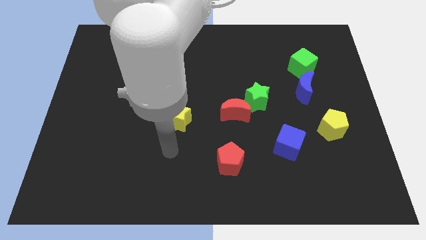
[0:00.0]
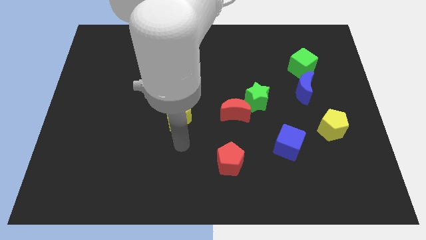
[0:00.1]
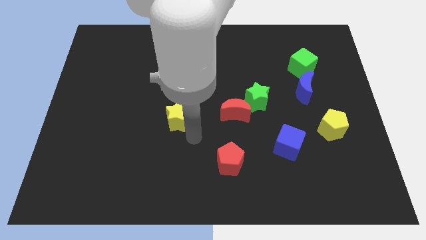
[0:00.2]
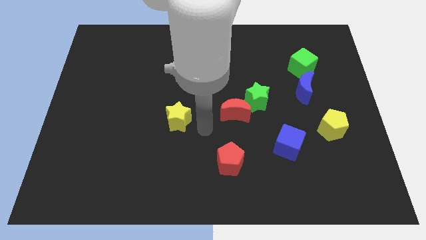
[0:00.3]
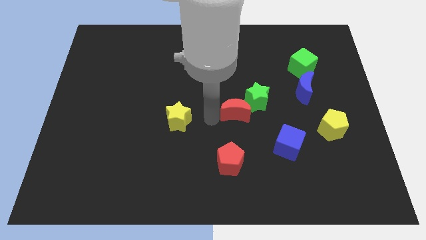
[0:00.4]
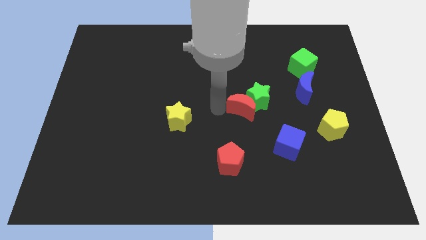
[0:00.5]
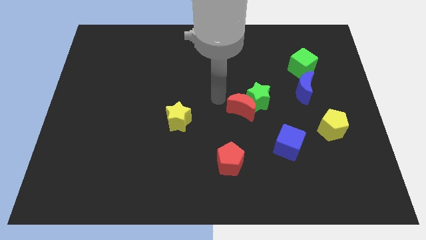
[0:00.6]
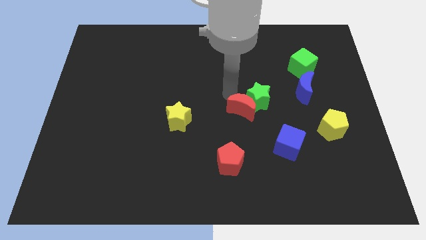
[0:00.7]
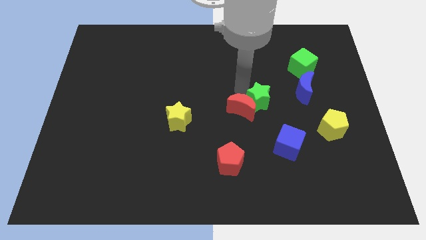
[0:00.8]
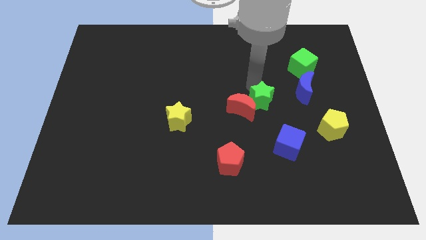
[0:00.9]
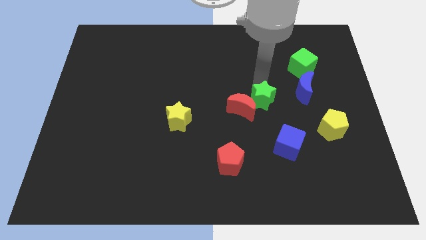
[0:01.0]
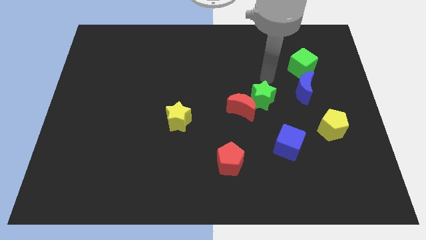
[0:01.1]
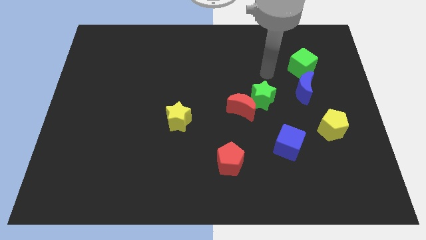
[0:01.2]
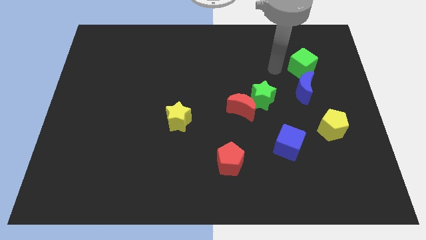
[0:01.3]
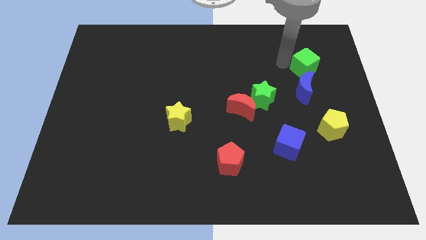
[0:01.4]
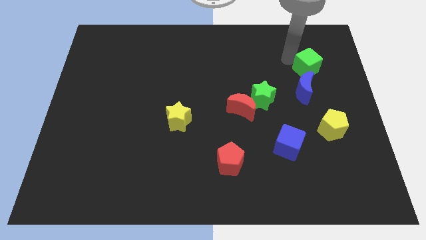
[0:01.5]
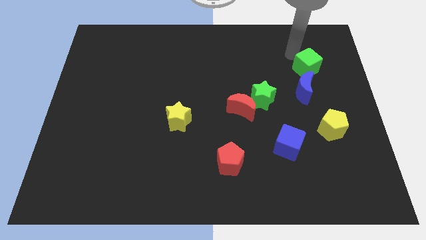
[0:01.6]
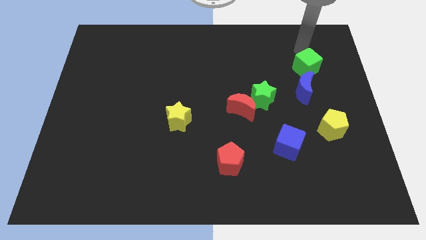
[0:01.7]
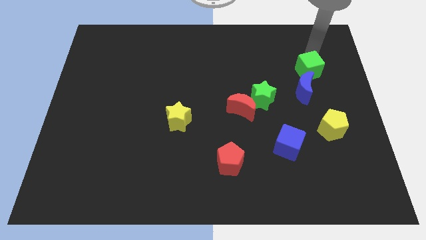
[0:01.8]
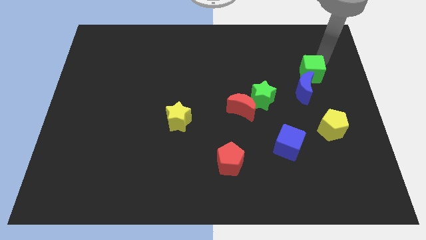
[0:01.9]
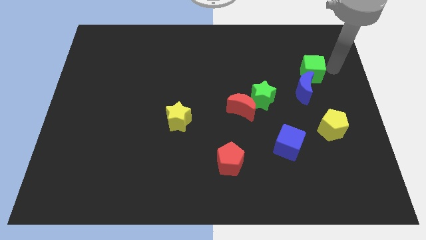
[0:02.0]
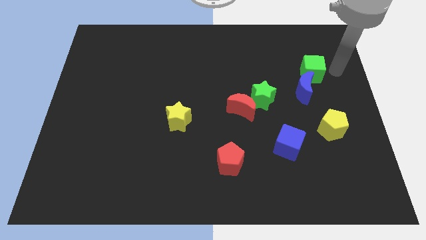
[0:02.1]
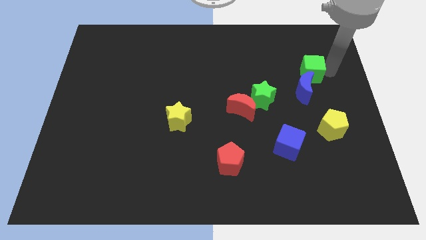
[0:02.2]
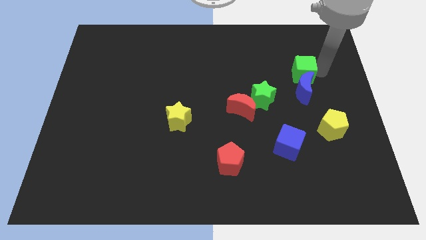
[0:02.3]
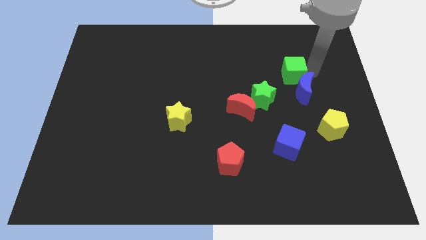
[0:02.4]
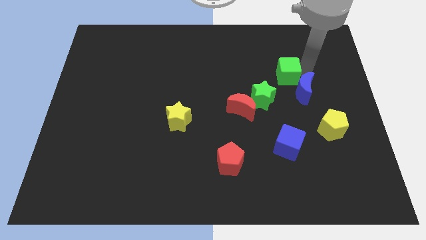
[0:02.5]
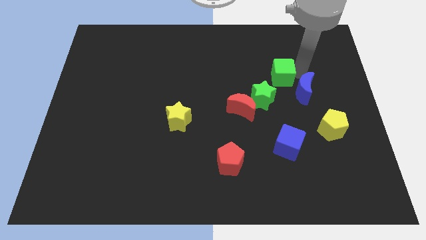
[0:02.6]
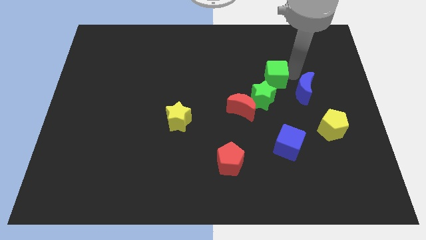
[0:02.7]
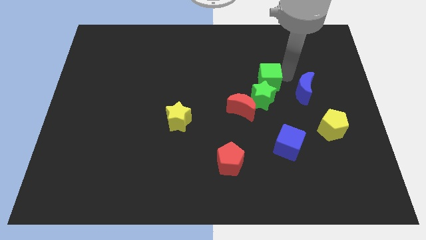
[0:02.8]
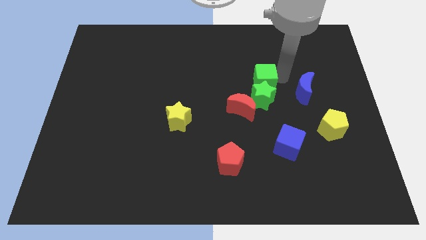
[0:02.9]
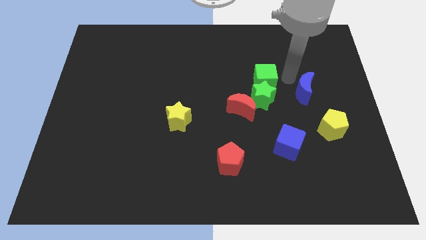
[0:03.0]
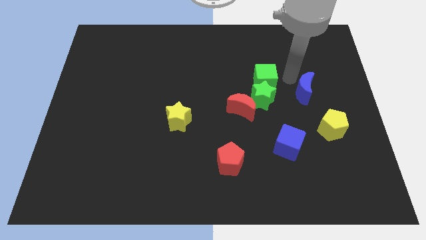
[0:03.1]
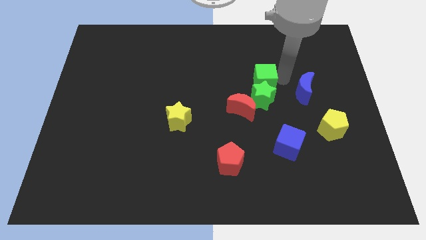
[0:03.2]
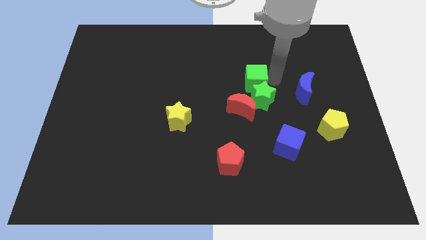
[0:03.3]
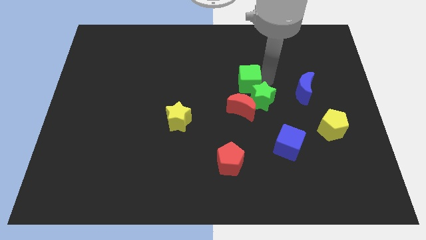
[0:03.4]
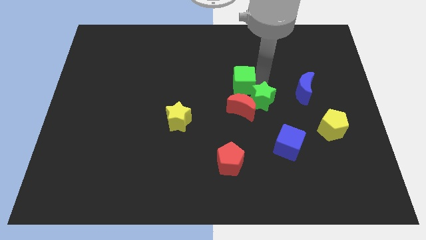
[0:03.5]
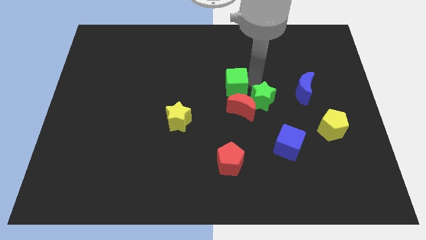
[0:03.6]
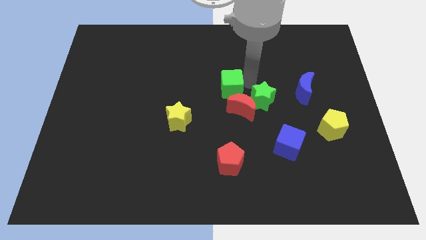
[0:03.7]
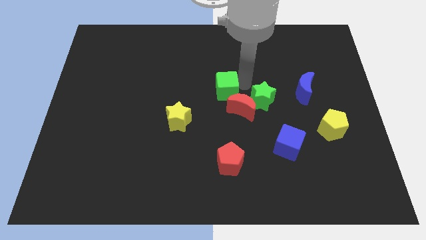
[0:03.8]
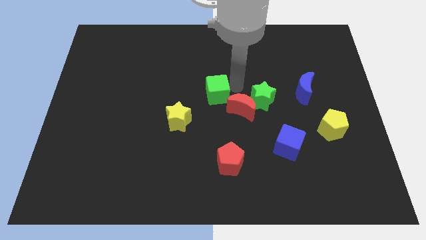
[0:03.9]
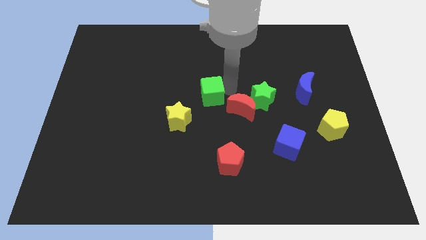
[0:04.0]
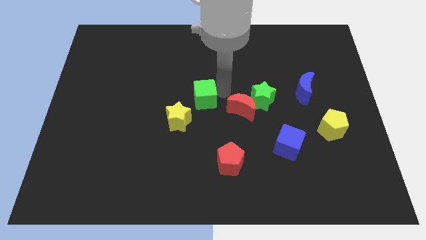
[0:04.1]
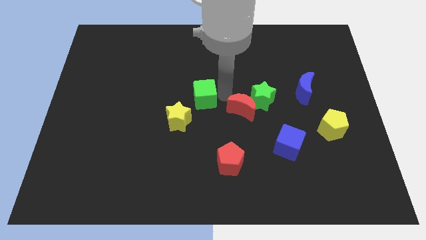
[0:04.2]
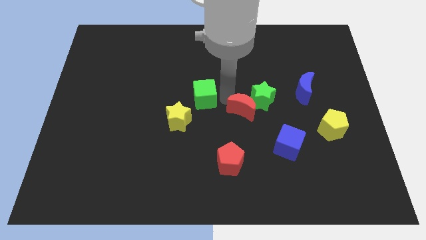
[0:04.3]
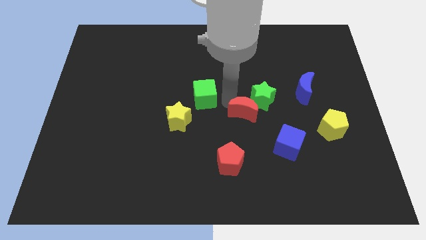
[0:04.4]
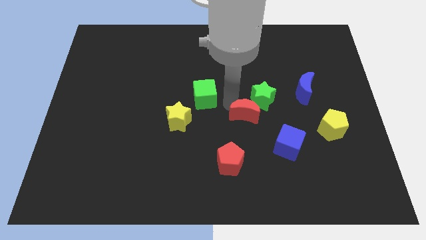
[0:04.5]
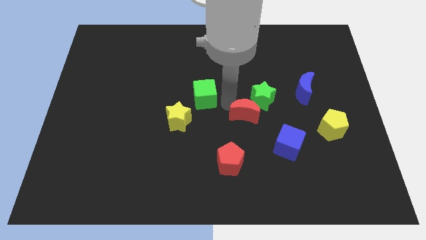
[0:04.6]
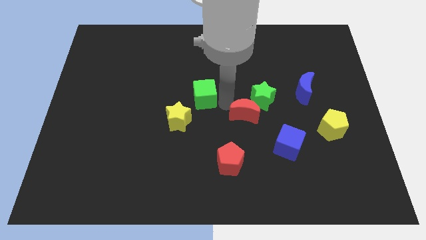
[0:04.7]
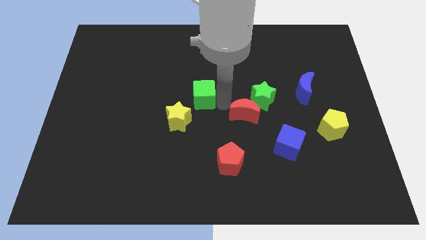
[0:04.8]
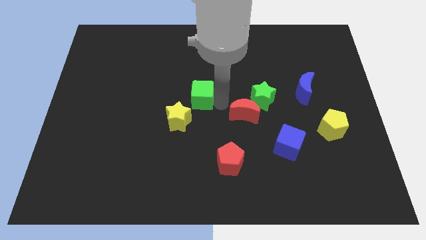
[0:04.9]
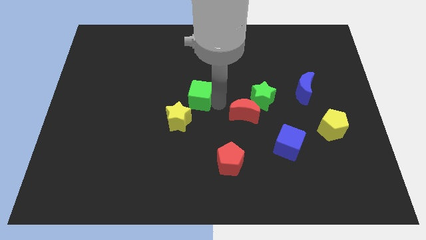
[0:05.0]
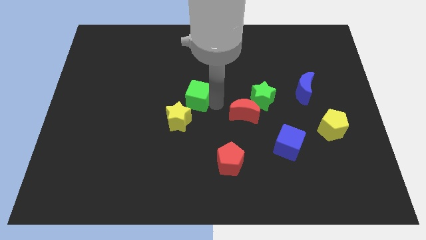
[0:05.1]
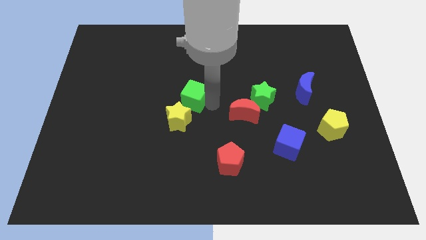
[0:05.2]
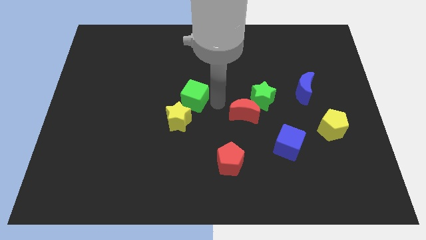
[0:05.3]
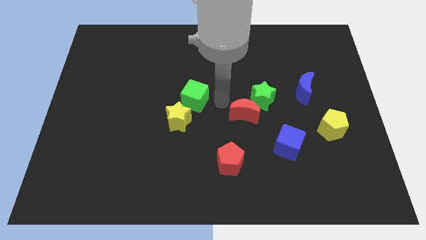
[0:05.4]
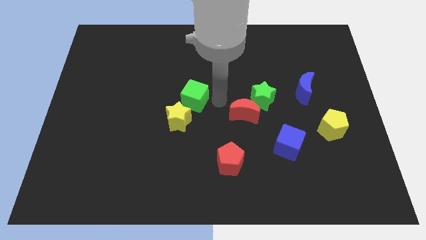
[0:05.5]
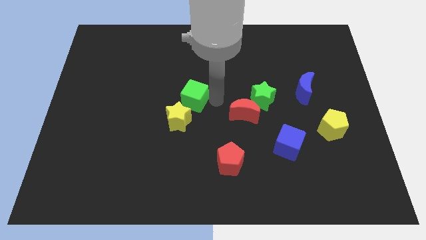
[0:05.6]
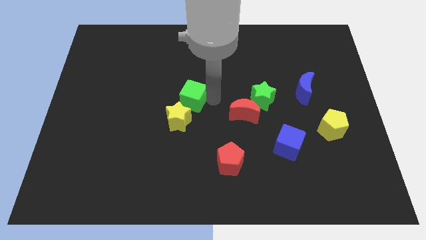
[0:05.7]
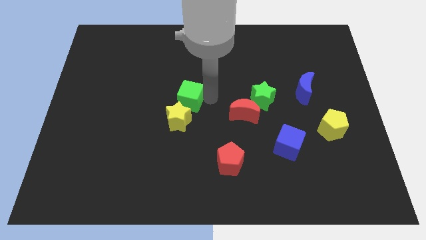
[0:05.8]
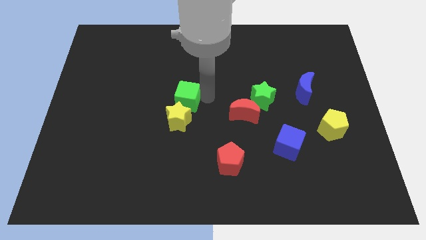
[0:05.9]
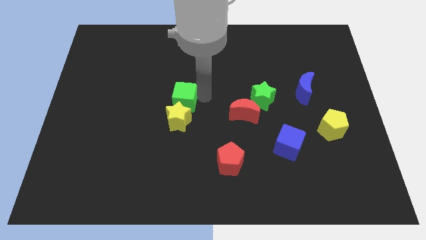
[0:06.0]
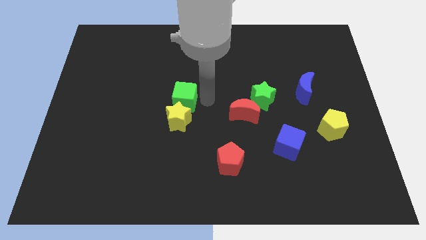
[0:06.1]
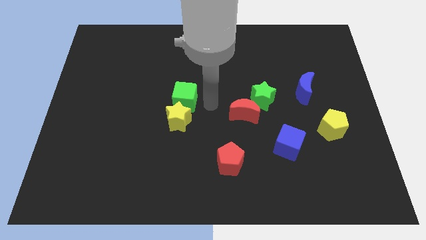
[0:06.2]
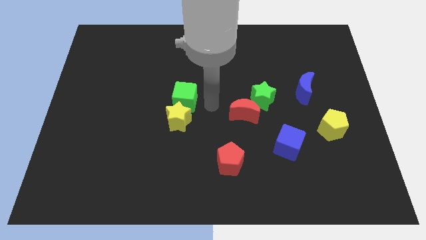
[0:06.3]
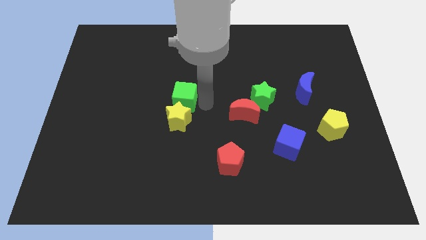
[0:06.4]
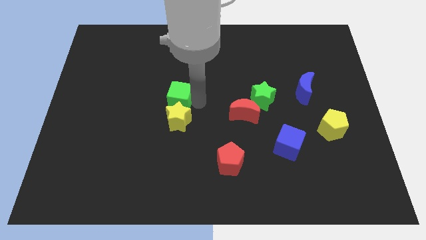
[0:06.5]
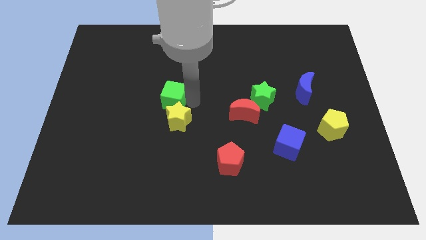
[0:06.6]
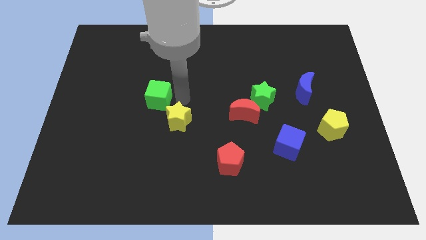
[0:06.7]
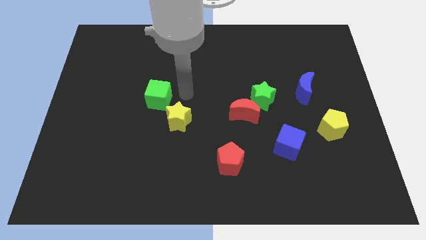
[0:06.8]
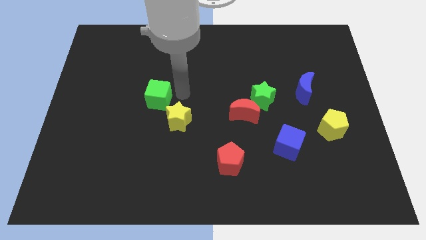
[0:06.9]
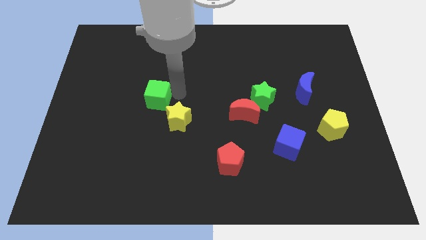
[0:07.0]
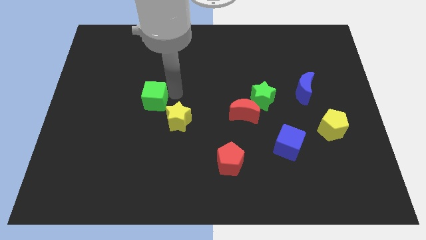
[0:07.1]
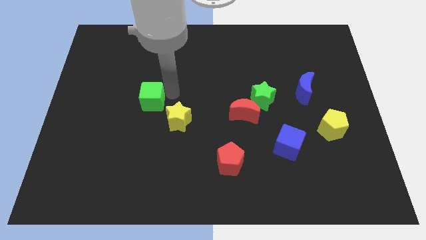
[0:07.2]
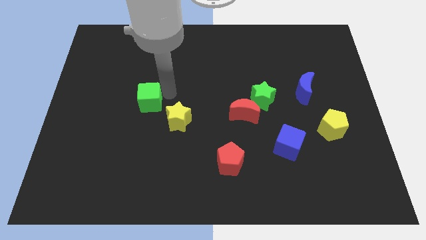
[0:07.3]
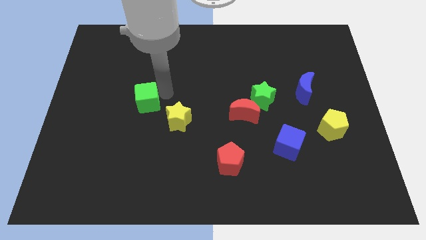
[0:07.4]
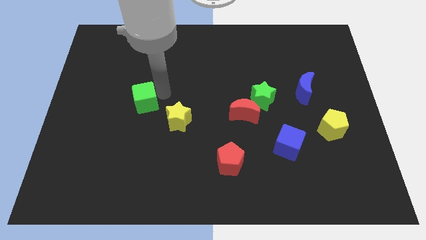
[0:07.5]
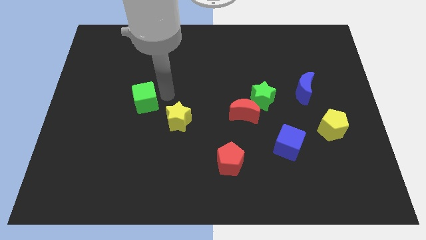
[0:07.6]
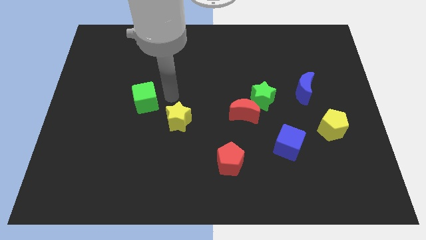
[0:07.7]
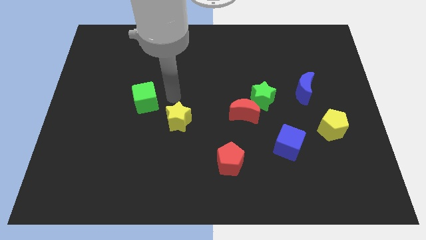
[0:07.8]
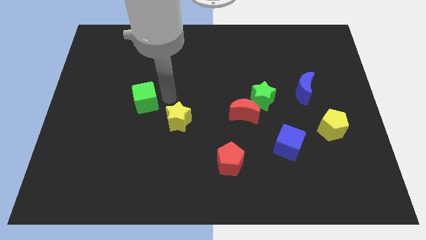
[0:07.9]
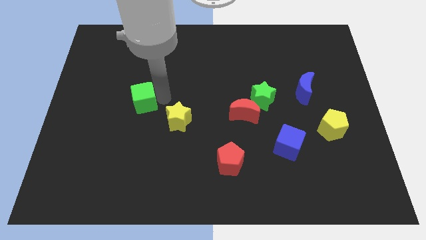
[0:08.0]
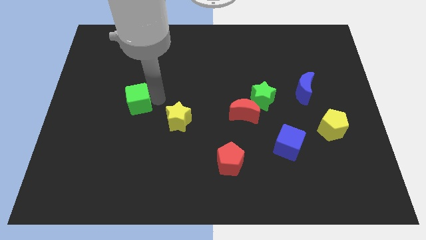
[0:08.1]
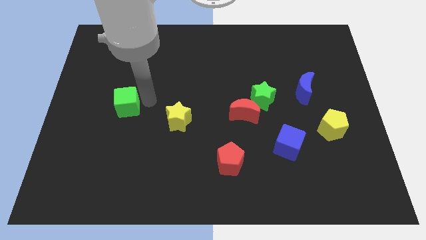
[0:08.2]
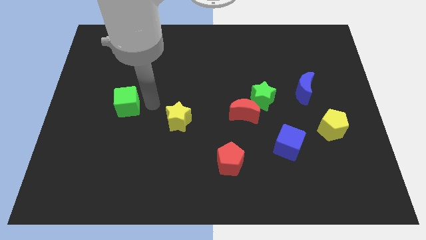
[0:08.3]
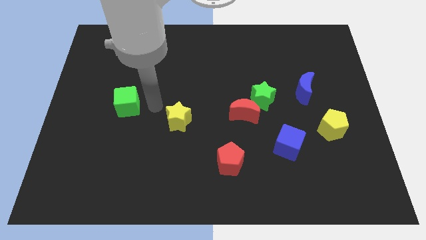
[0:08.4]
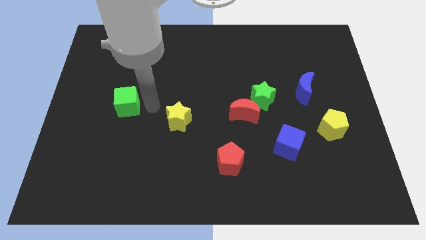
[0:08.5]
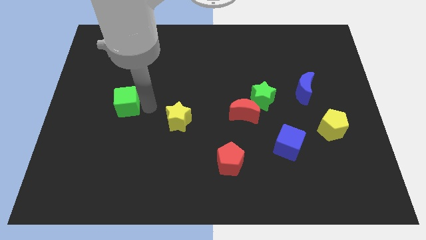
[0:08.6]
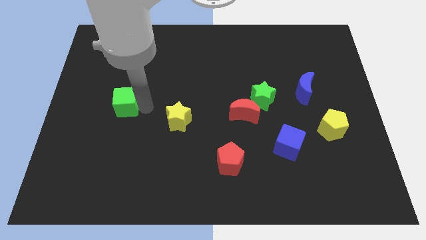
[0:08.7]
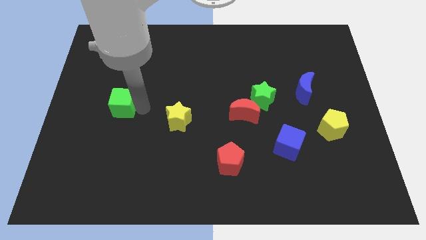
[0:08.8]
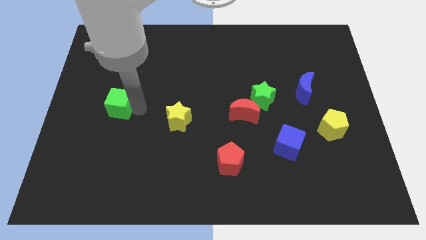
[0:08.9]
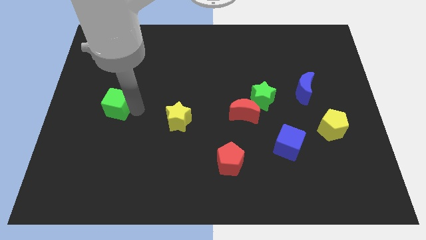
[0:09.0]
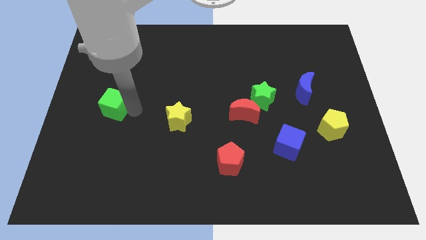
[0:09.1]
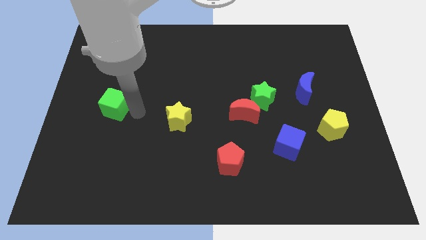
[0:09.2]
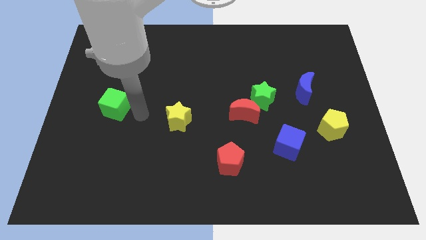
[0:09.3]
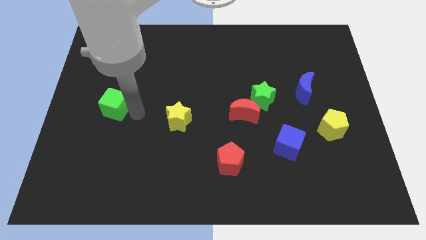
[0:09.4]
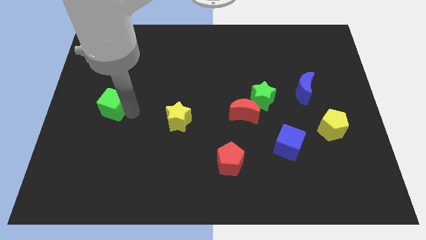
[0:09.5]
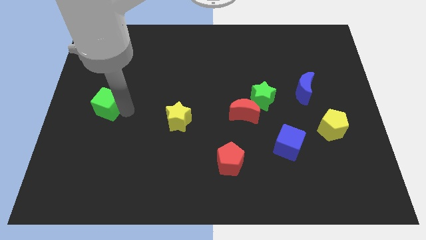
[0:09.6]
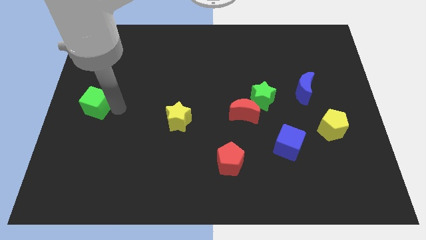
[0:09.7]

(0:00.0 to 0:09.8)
put the green cube to the left side of the board
